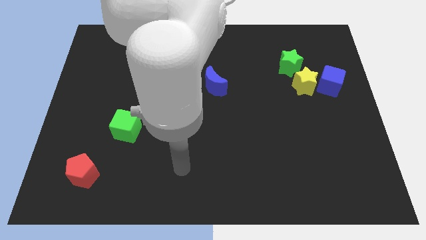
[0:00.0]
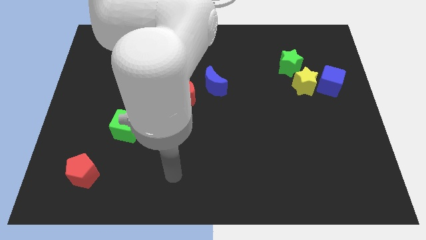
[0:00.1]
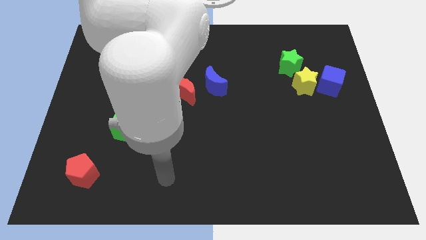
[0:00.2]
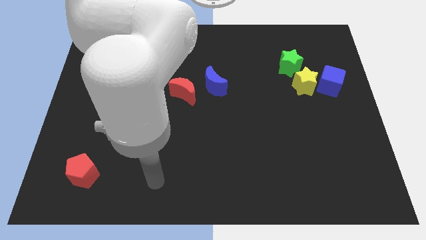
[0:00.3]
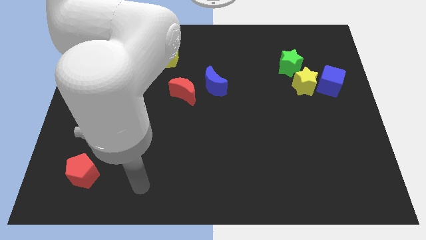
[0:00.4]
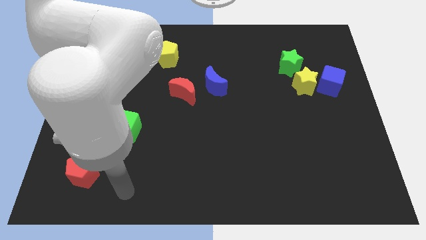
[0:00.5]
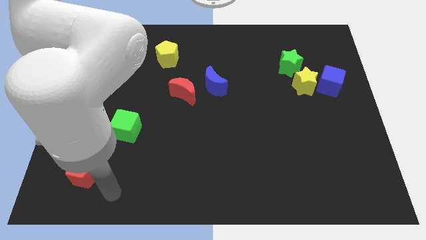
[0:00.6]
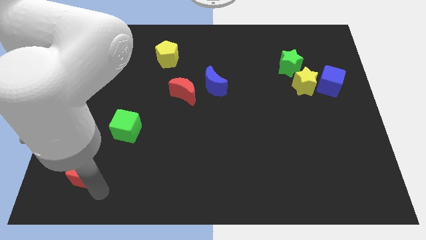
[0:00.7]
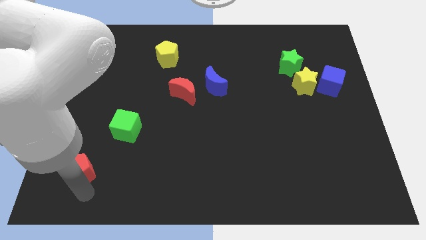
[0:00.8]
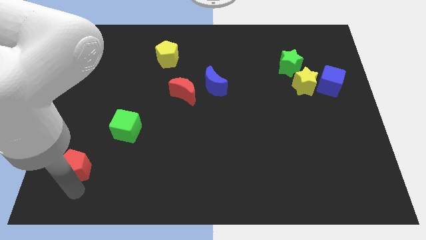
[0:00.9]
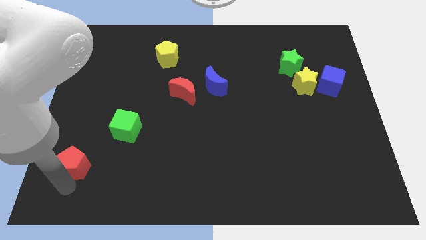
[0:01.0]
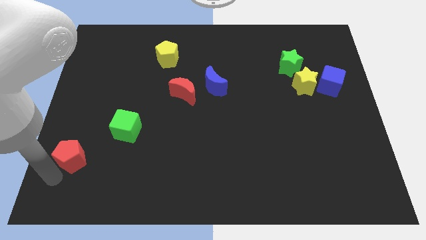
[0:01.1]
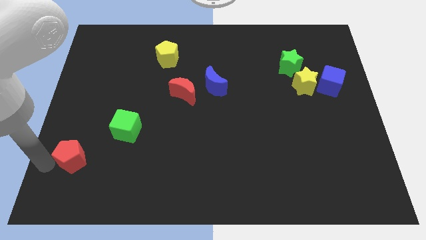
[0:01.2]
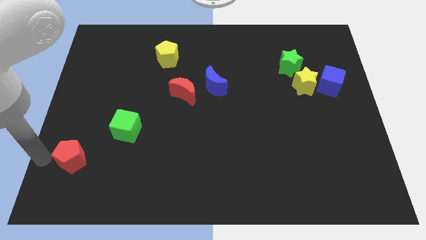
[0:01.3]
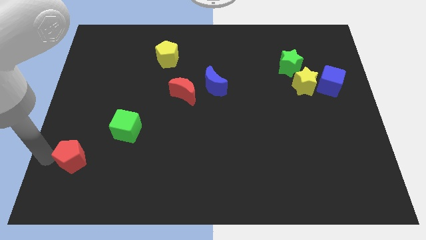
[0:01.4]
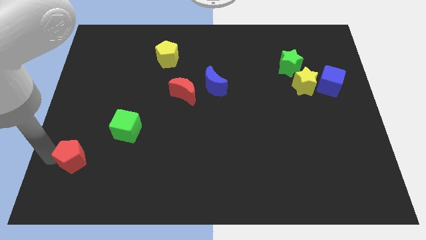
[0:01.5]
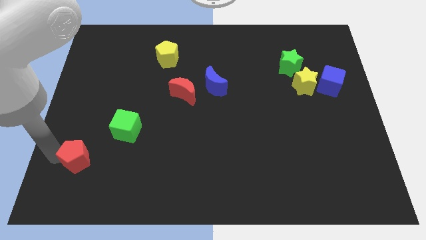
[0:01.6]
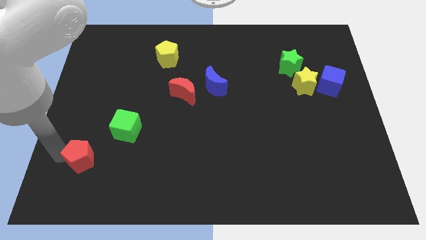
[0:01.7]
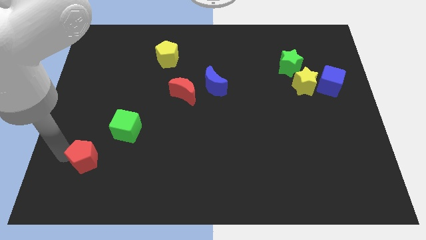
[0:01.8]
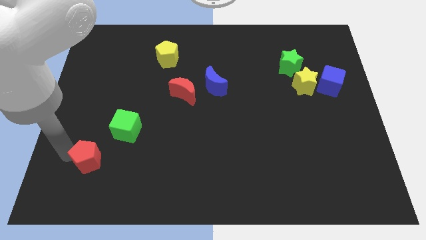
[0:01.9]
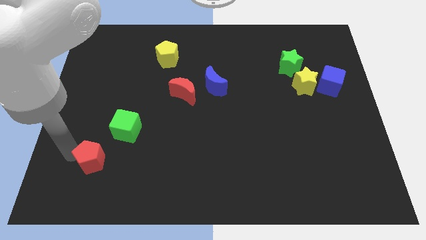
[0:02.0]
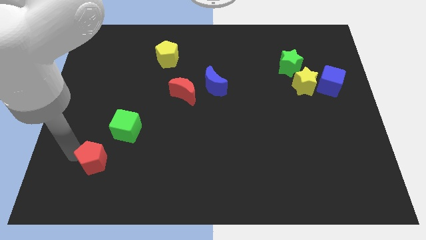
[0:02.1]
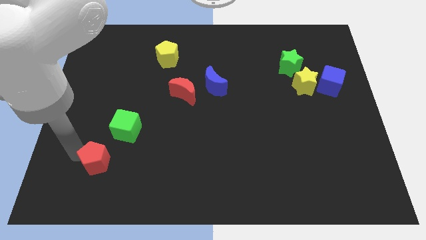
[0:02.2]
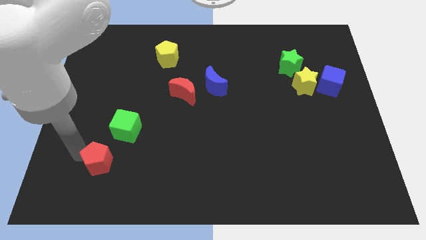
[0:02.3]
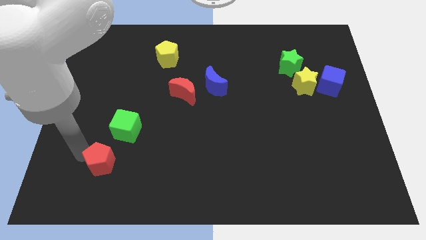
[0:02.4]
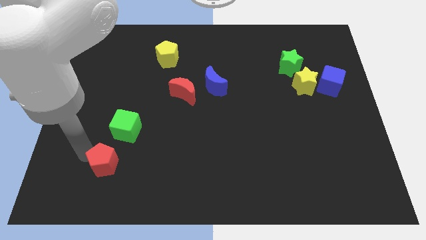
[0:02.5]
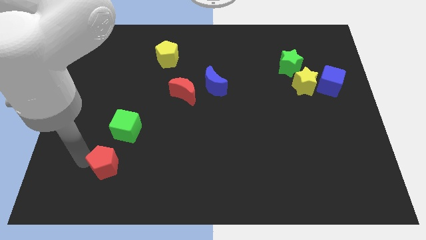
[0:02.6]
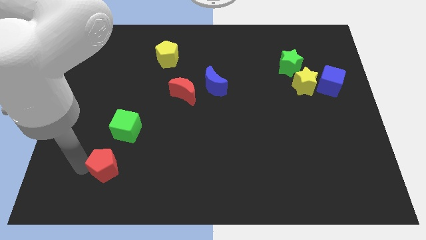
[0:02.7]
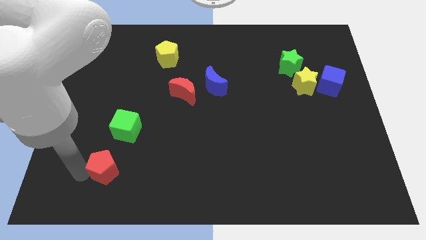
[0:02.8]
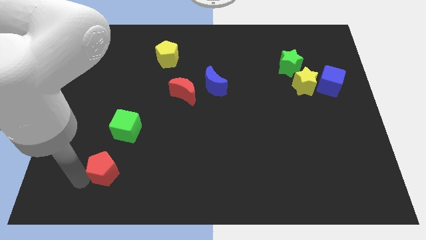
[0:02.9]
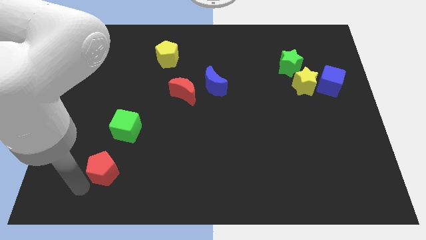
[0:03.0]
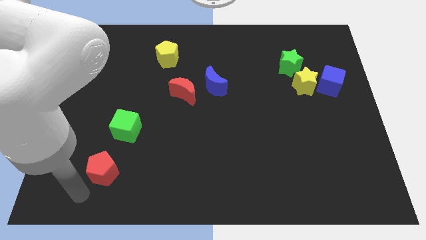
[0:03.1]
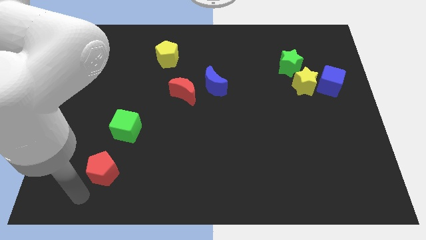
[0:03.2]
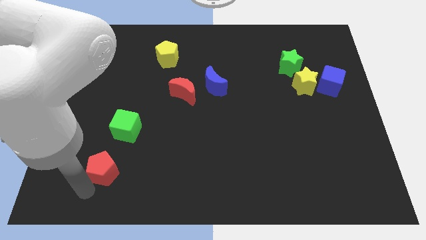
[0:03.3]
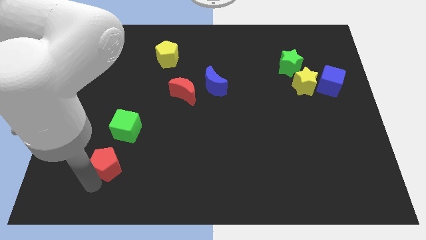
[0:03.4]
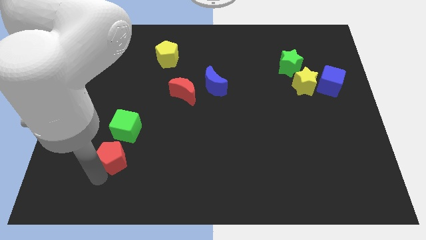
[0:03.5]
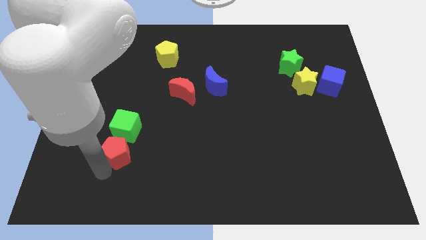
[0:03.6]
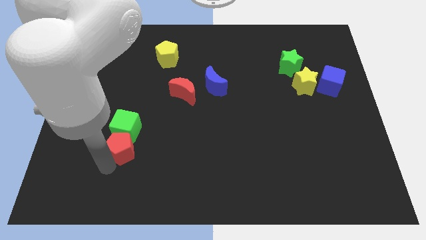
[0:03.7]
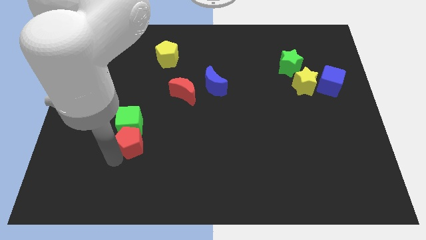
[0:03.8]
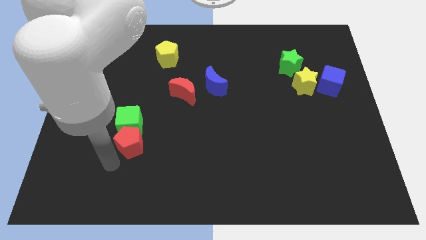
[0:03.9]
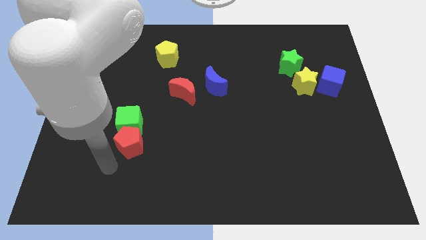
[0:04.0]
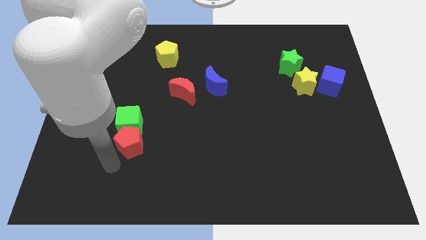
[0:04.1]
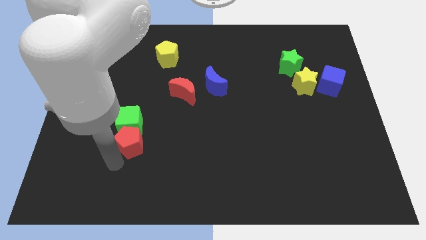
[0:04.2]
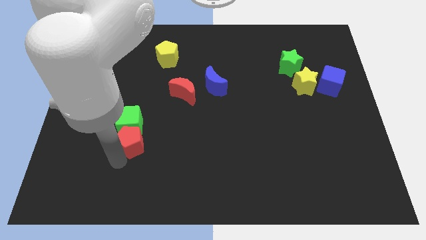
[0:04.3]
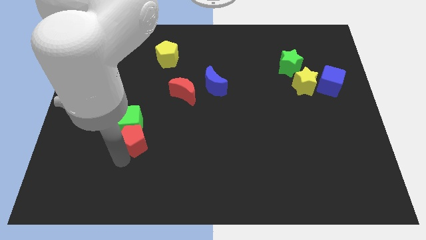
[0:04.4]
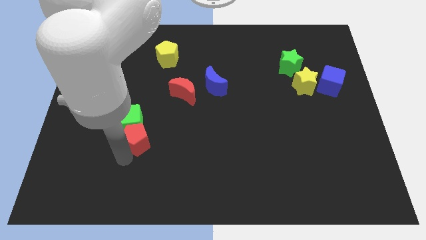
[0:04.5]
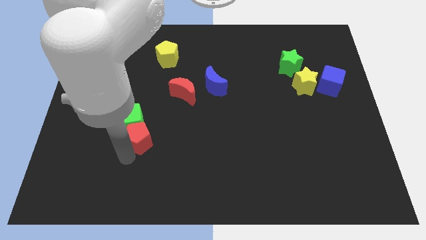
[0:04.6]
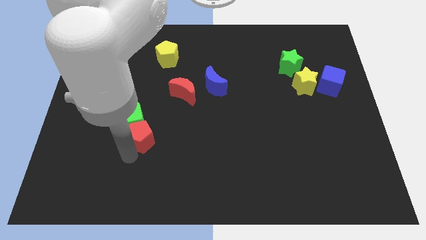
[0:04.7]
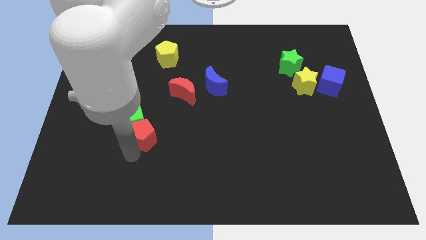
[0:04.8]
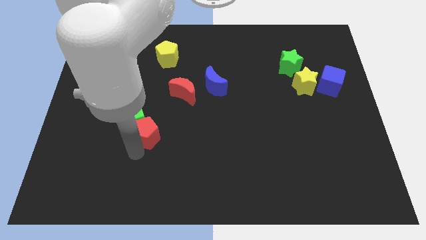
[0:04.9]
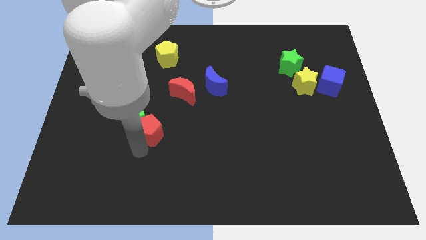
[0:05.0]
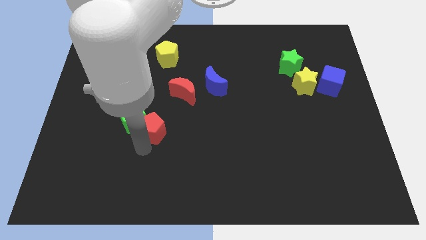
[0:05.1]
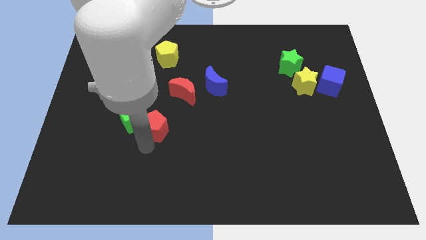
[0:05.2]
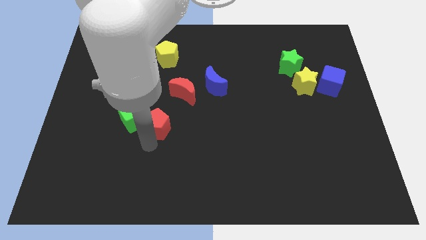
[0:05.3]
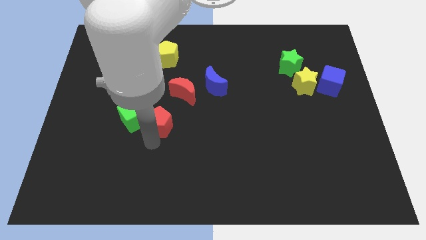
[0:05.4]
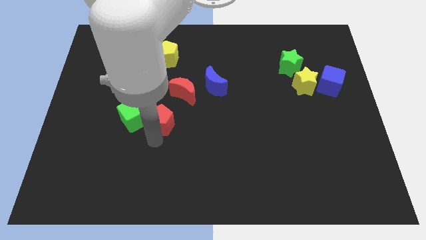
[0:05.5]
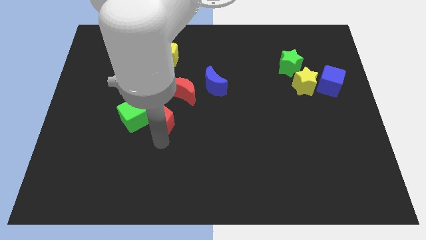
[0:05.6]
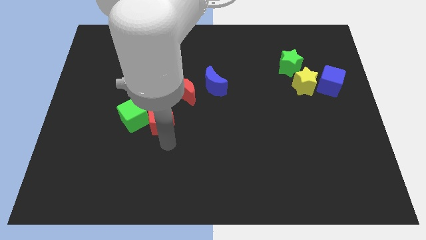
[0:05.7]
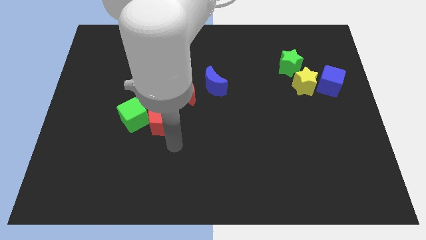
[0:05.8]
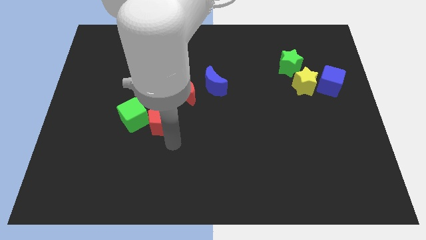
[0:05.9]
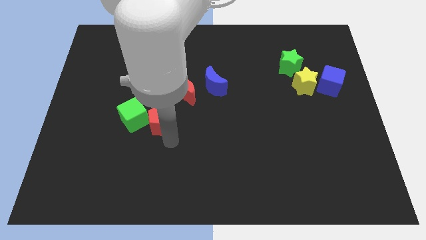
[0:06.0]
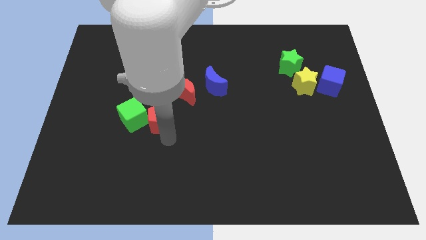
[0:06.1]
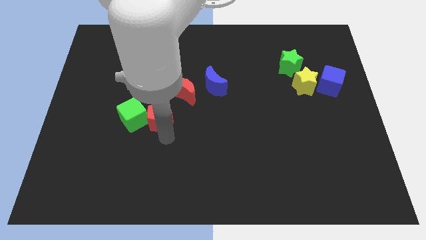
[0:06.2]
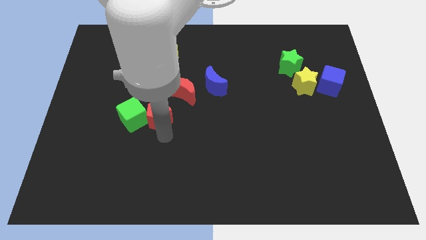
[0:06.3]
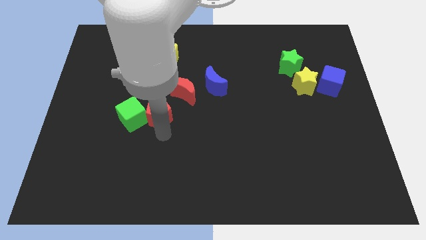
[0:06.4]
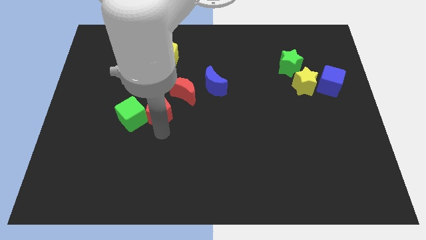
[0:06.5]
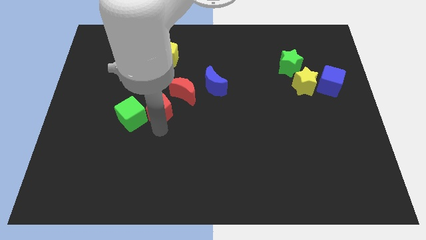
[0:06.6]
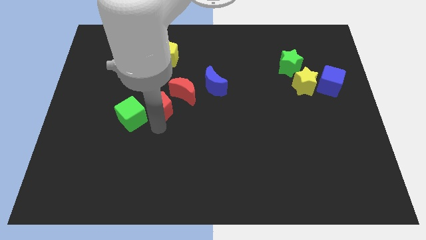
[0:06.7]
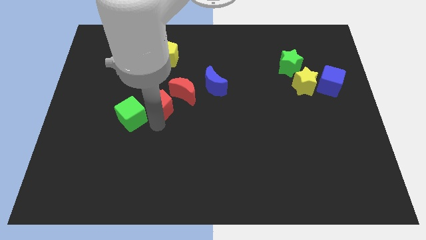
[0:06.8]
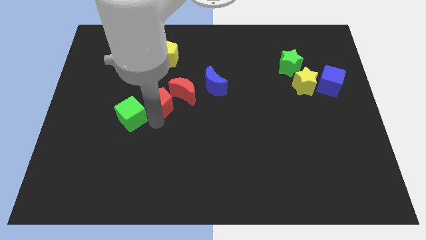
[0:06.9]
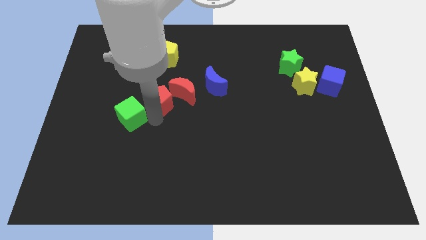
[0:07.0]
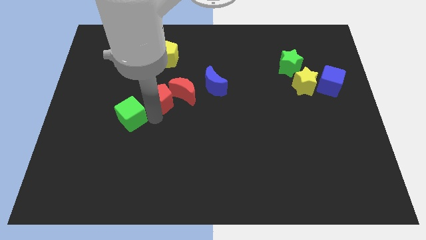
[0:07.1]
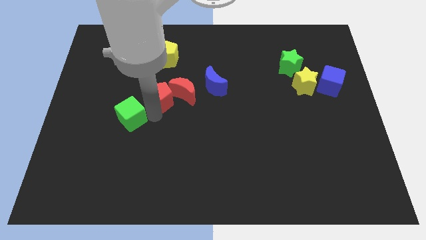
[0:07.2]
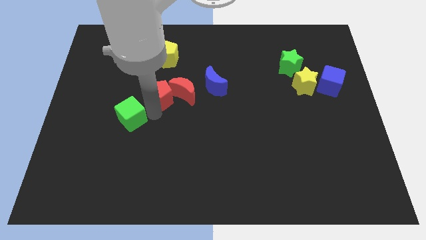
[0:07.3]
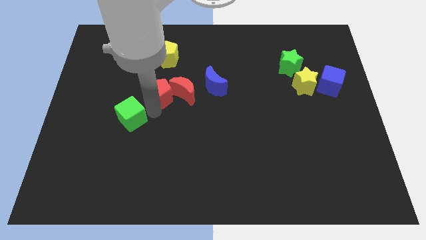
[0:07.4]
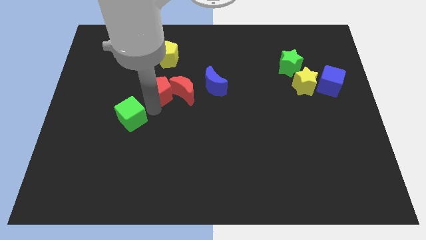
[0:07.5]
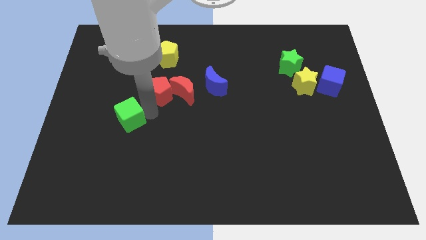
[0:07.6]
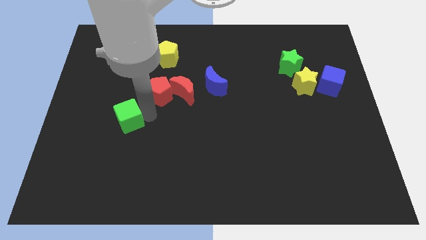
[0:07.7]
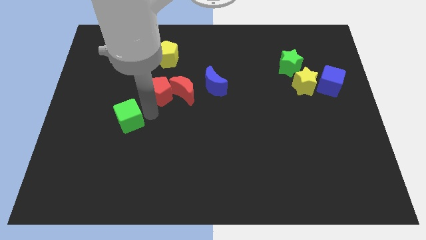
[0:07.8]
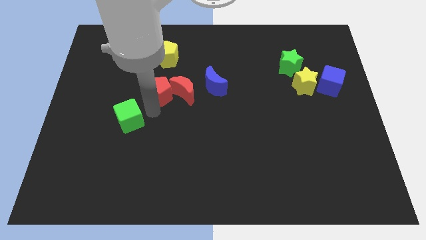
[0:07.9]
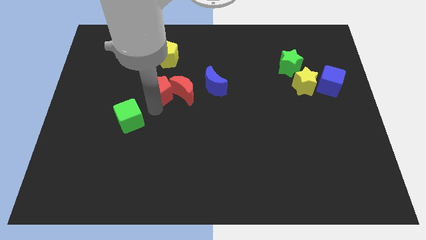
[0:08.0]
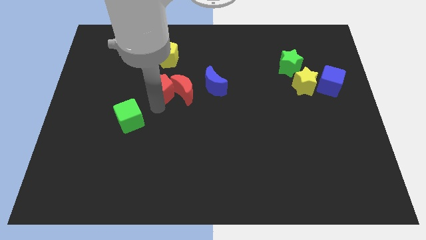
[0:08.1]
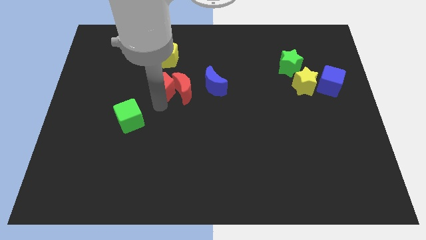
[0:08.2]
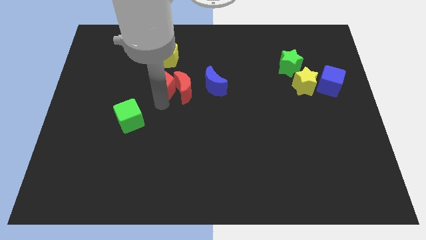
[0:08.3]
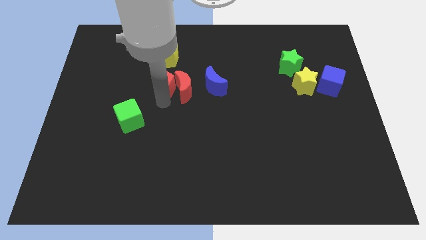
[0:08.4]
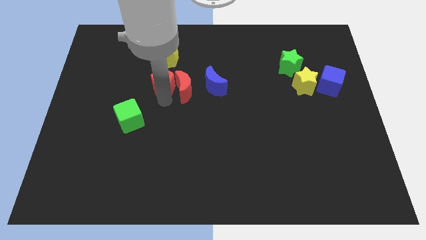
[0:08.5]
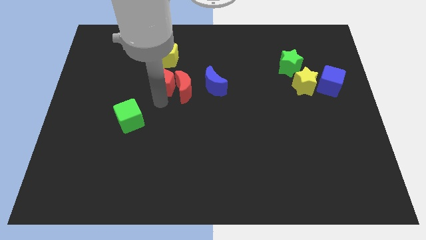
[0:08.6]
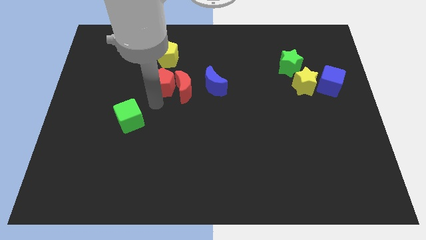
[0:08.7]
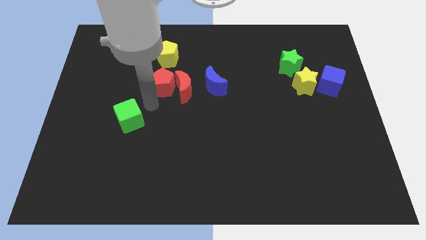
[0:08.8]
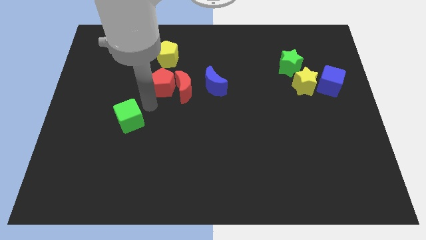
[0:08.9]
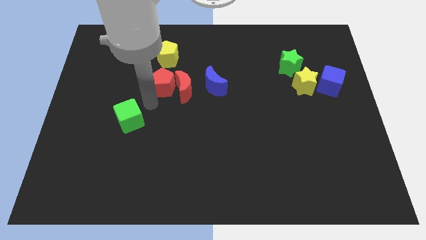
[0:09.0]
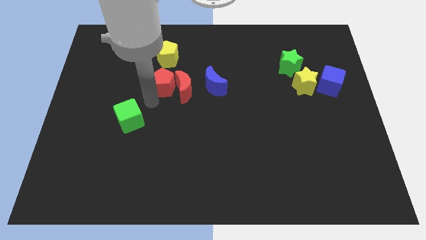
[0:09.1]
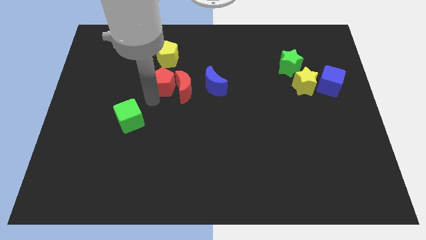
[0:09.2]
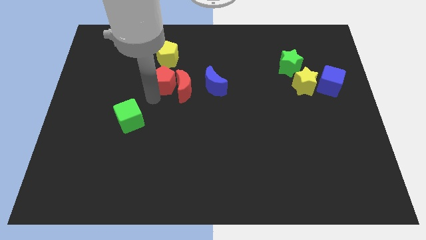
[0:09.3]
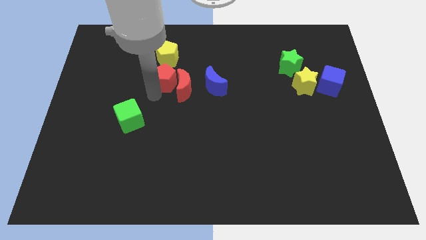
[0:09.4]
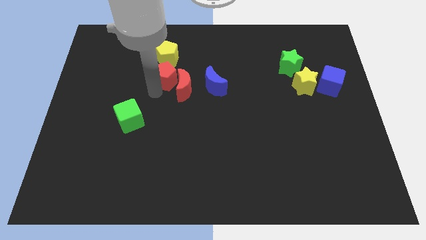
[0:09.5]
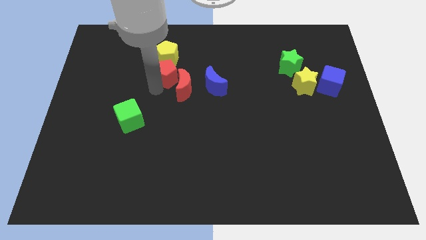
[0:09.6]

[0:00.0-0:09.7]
slide the red pentagon to the top side of the red moon
